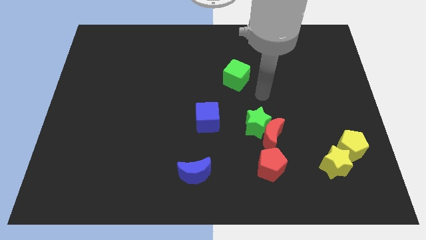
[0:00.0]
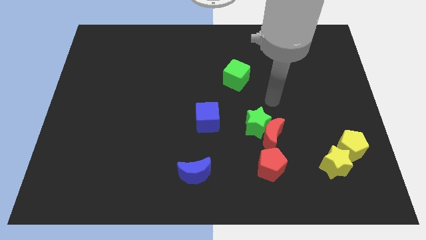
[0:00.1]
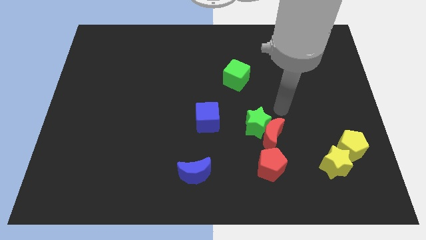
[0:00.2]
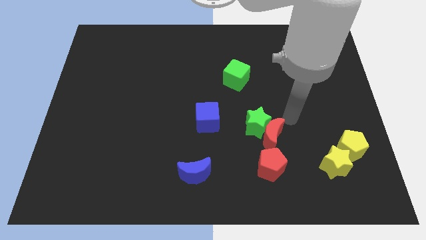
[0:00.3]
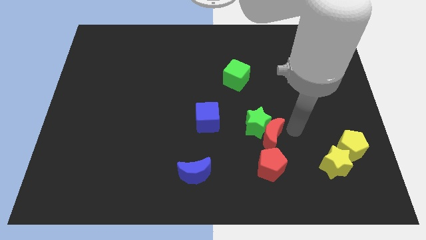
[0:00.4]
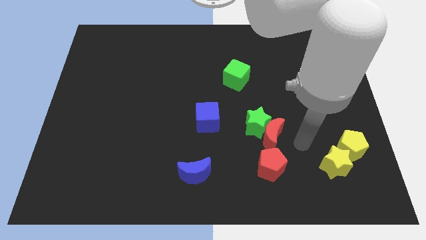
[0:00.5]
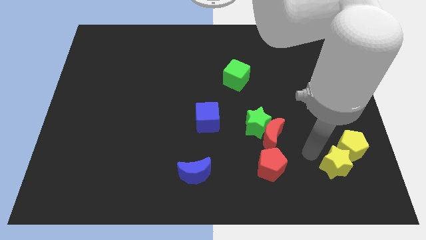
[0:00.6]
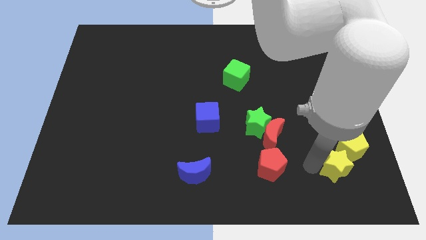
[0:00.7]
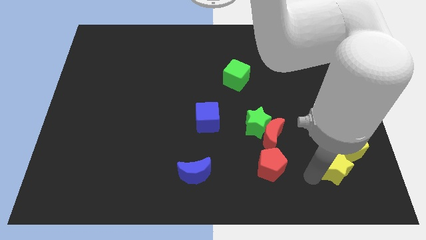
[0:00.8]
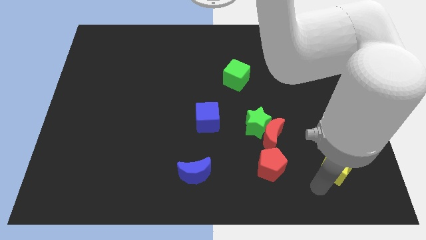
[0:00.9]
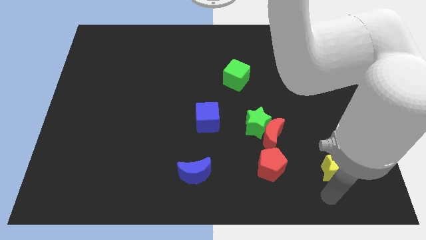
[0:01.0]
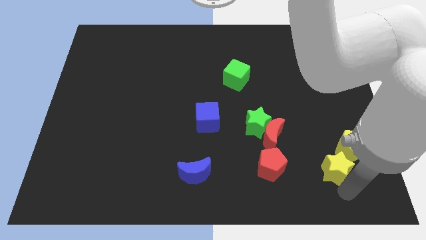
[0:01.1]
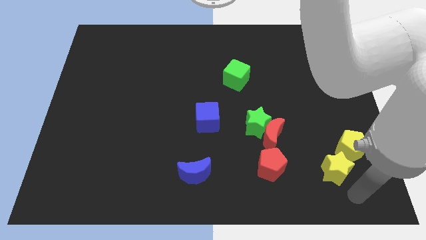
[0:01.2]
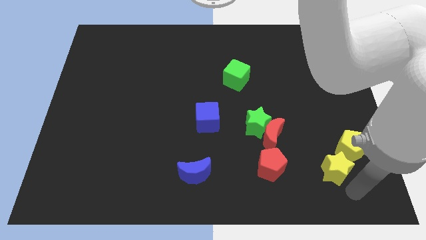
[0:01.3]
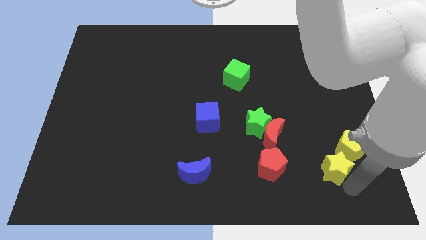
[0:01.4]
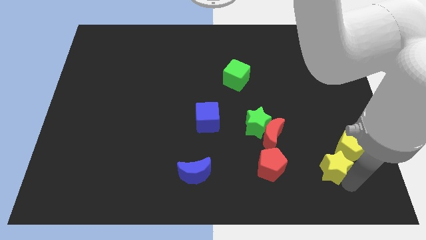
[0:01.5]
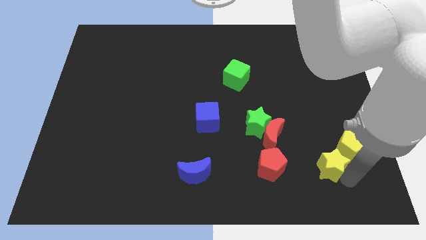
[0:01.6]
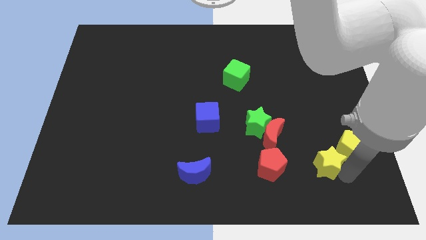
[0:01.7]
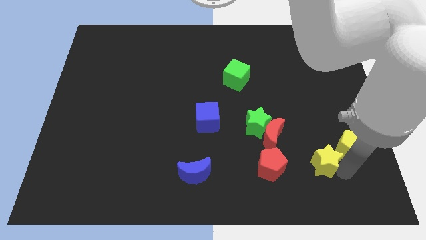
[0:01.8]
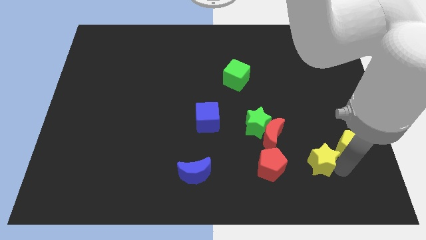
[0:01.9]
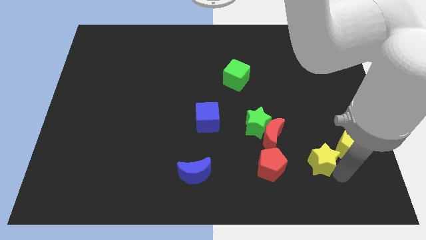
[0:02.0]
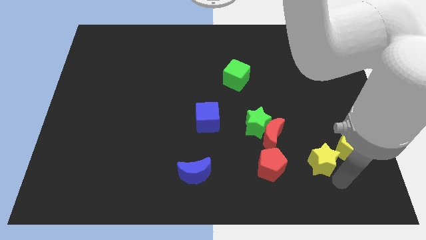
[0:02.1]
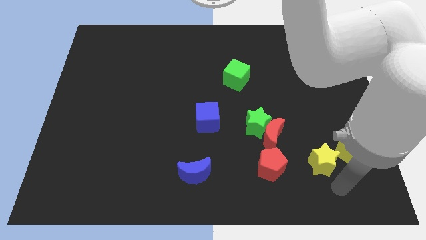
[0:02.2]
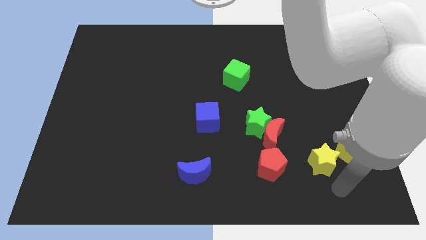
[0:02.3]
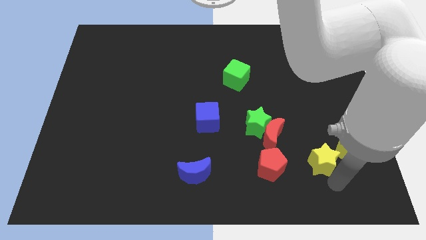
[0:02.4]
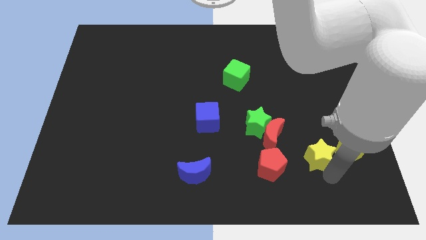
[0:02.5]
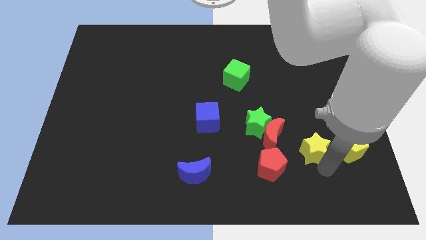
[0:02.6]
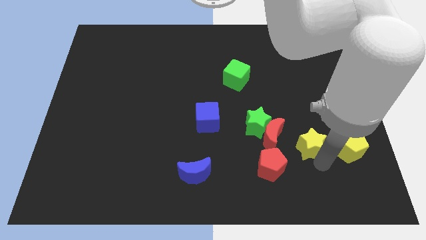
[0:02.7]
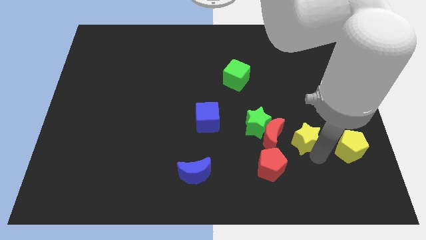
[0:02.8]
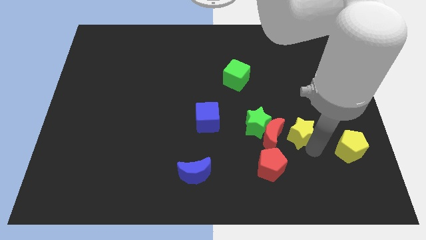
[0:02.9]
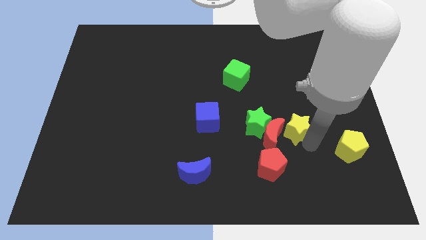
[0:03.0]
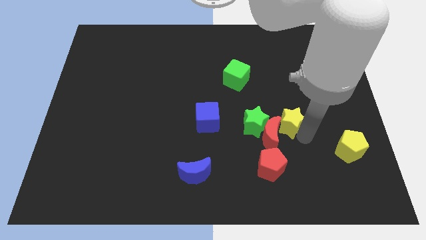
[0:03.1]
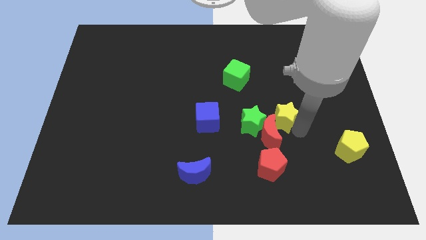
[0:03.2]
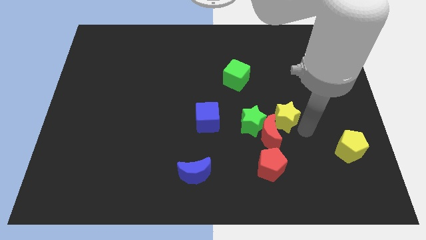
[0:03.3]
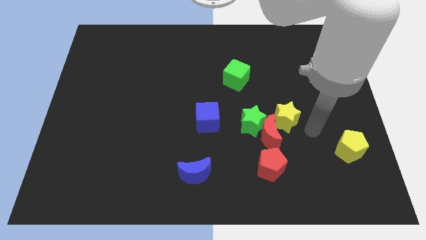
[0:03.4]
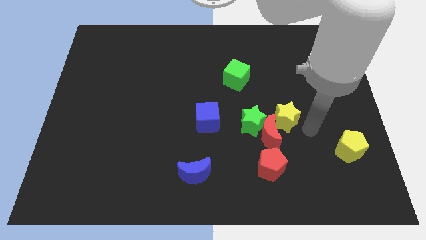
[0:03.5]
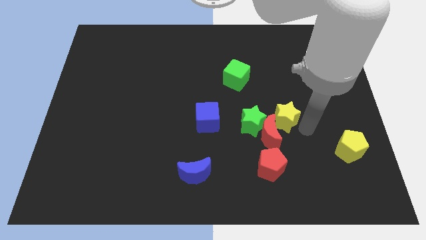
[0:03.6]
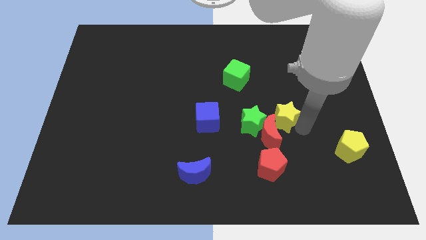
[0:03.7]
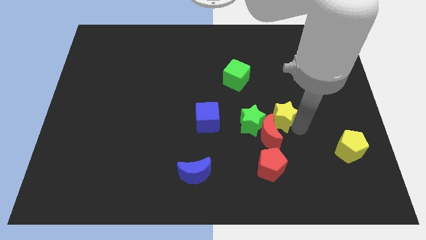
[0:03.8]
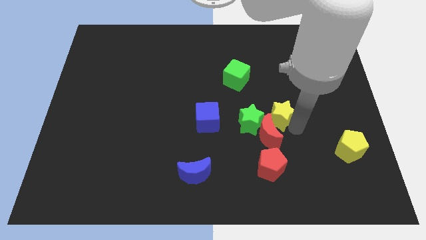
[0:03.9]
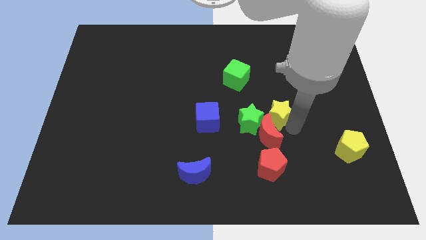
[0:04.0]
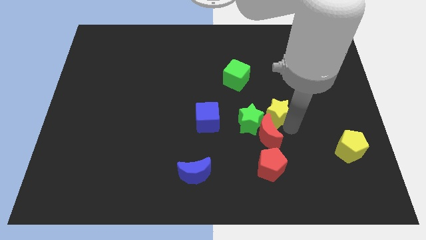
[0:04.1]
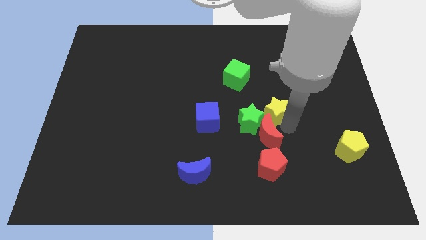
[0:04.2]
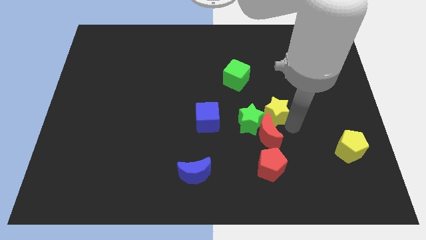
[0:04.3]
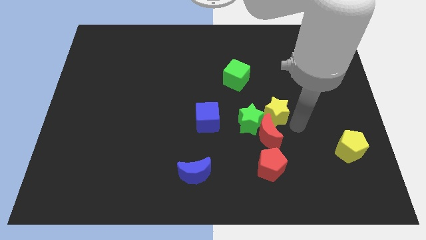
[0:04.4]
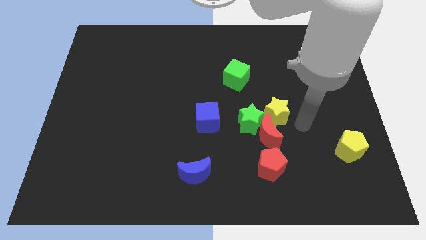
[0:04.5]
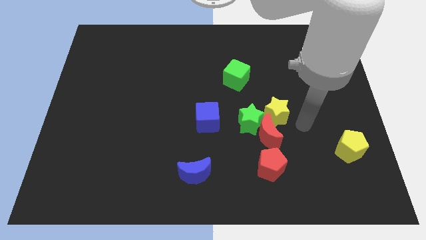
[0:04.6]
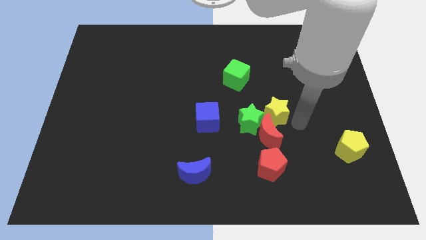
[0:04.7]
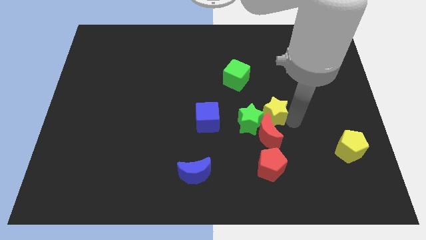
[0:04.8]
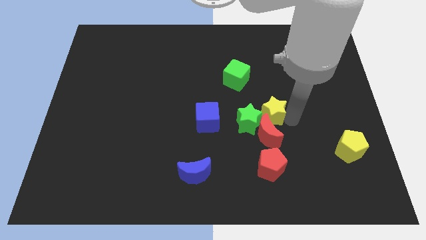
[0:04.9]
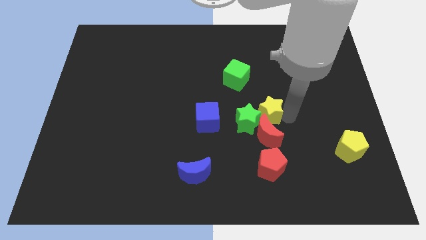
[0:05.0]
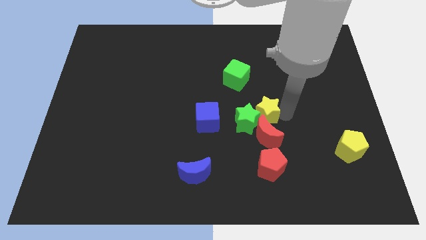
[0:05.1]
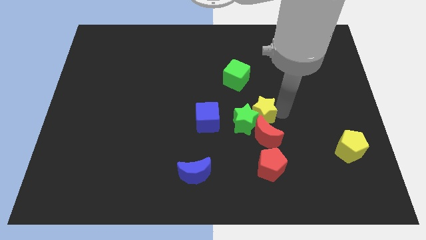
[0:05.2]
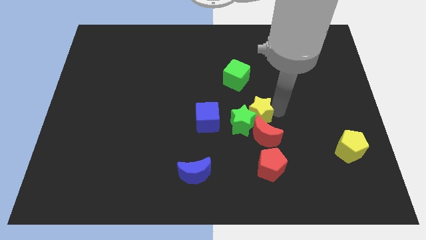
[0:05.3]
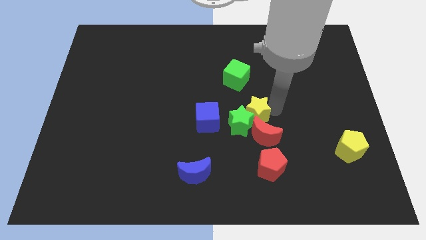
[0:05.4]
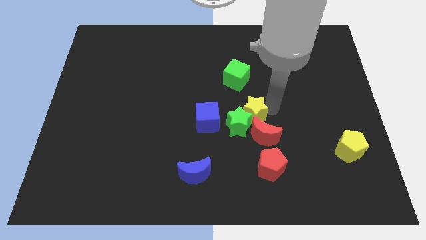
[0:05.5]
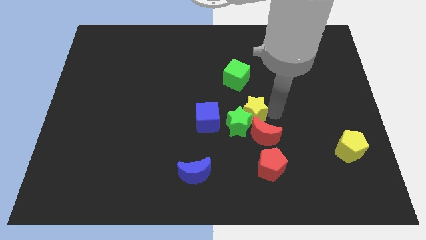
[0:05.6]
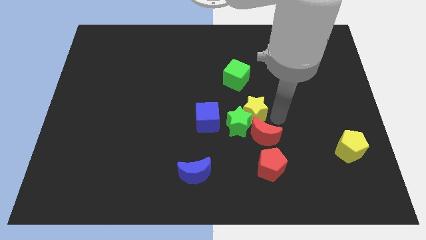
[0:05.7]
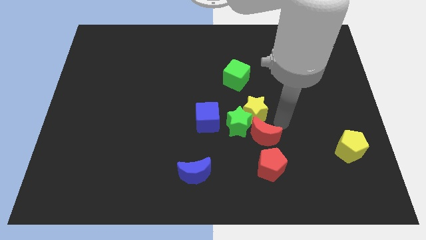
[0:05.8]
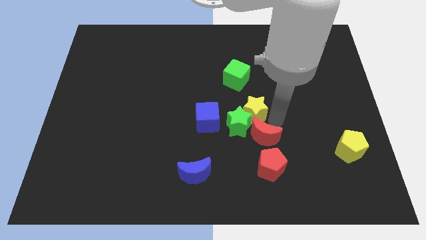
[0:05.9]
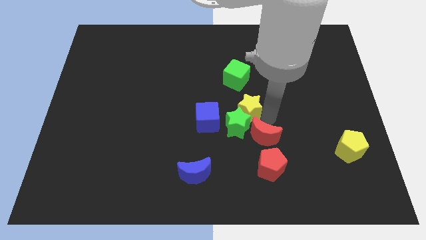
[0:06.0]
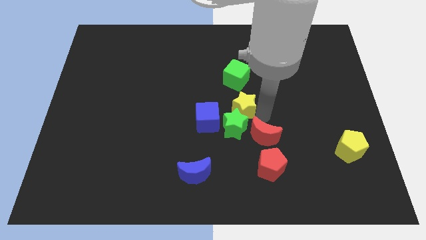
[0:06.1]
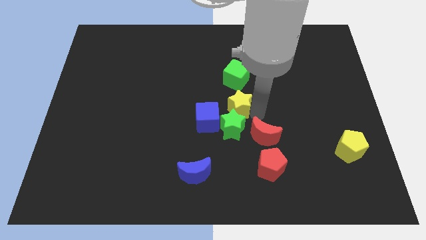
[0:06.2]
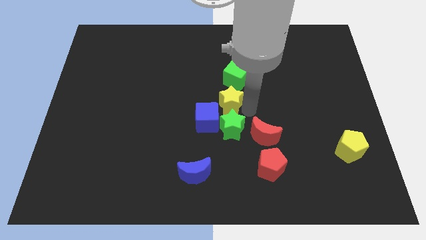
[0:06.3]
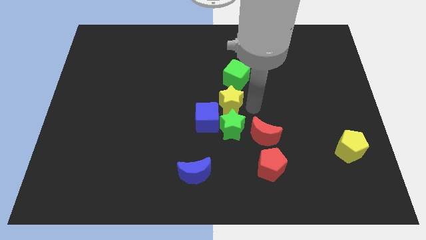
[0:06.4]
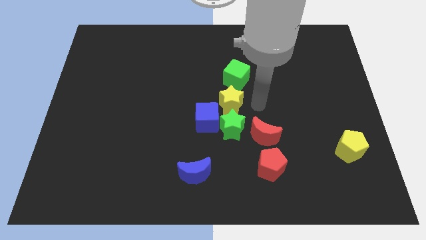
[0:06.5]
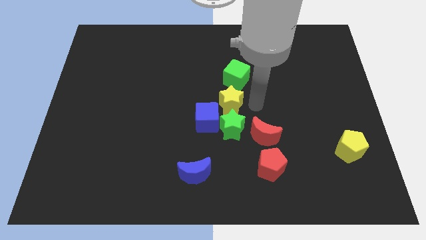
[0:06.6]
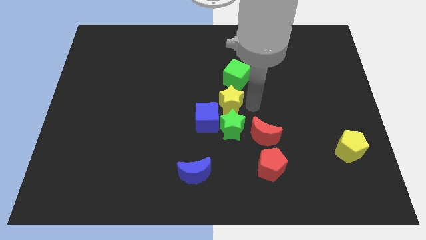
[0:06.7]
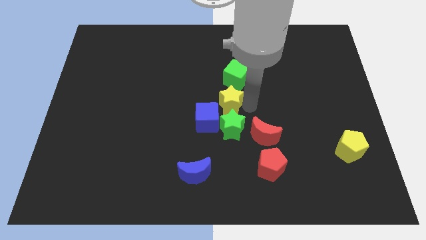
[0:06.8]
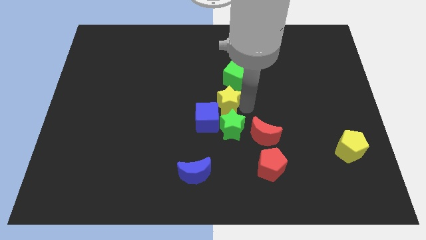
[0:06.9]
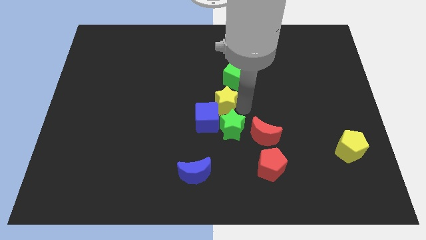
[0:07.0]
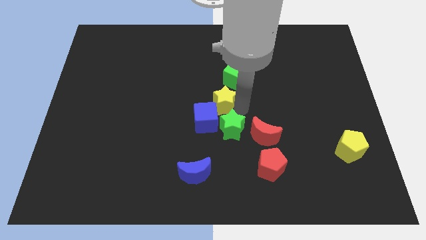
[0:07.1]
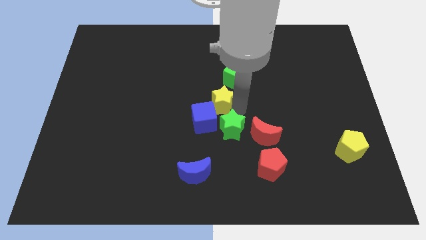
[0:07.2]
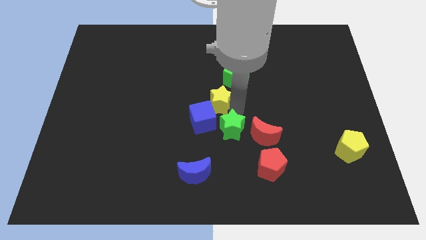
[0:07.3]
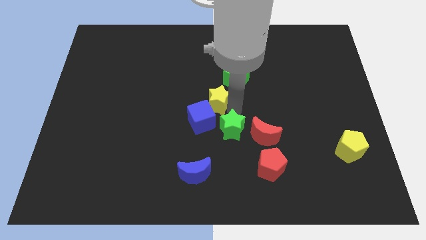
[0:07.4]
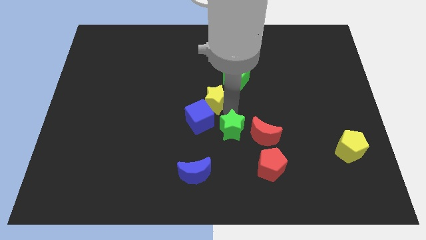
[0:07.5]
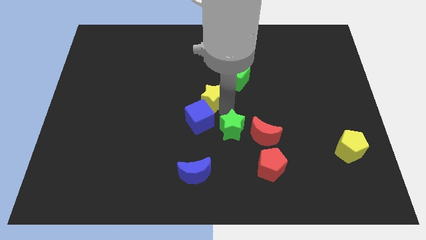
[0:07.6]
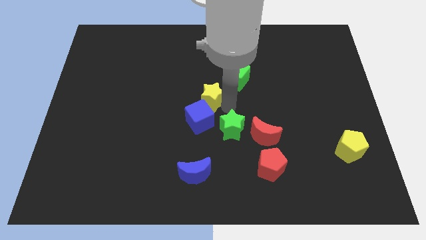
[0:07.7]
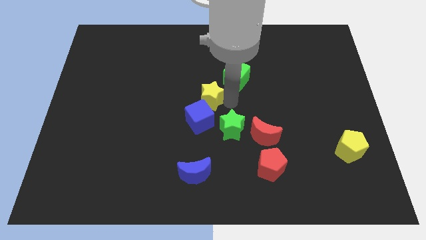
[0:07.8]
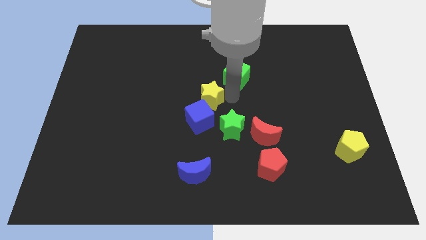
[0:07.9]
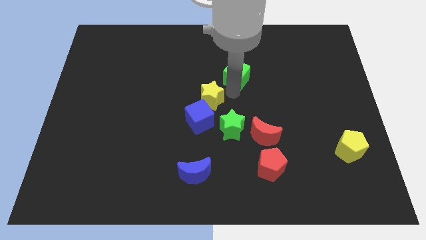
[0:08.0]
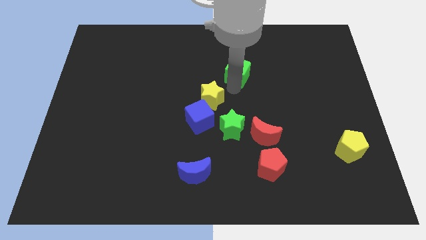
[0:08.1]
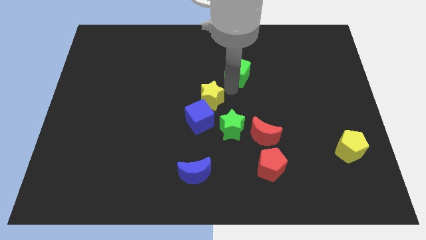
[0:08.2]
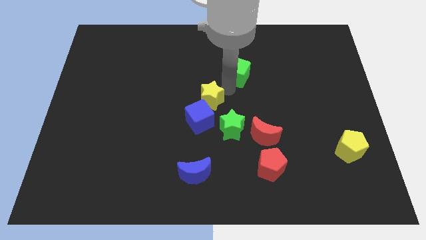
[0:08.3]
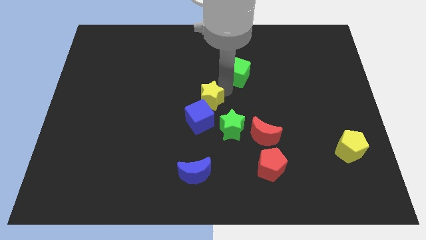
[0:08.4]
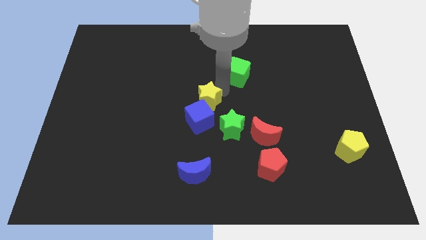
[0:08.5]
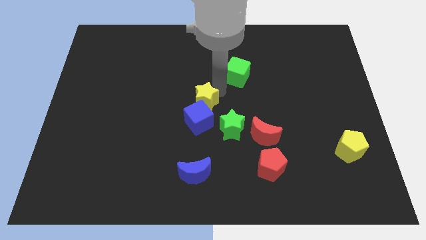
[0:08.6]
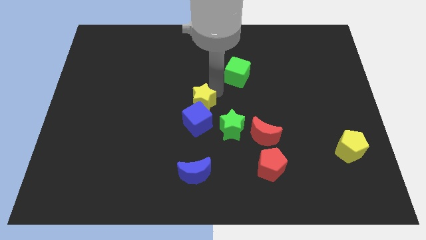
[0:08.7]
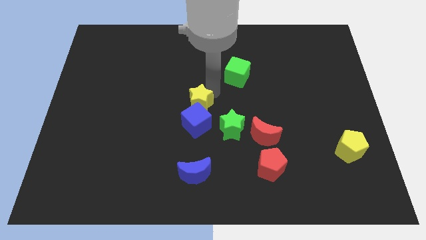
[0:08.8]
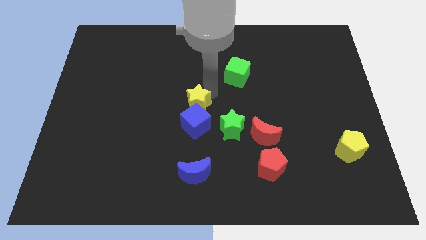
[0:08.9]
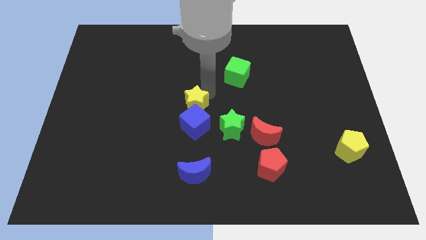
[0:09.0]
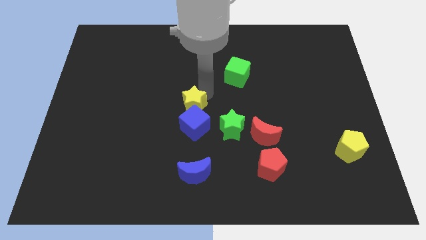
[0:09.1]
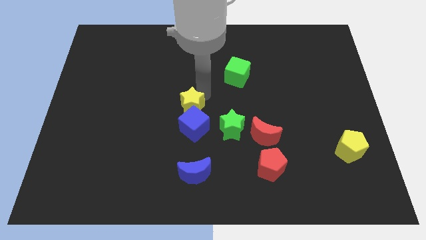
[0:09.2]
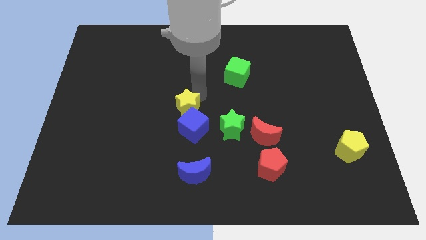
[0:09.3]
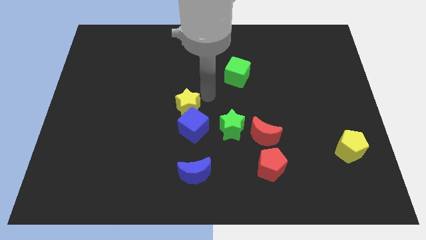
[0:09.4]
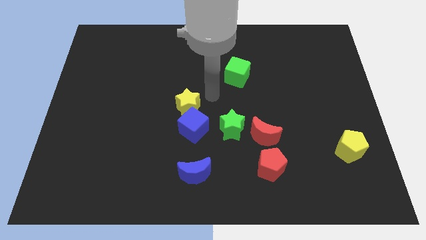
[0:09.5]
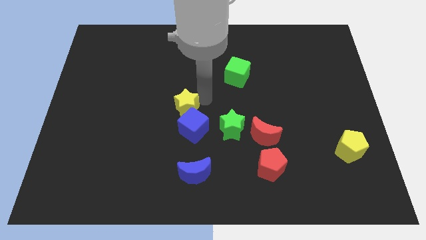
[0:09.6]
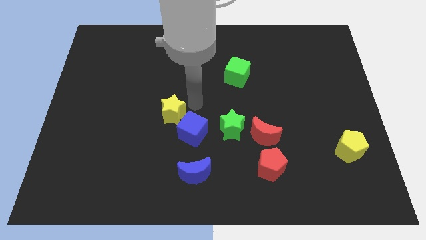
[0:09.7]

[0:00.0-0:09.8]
move the yellow star just left of the blue cube
